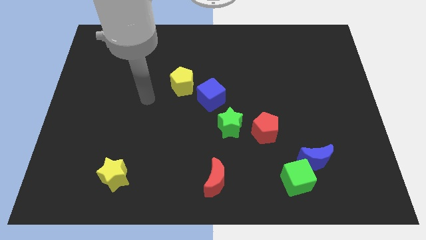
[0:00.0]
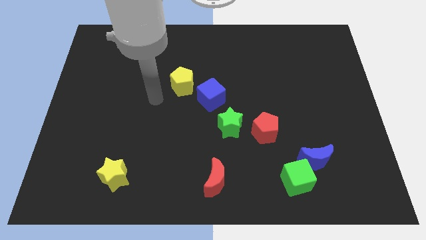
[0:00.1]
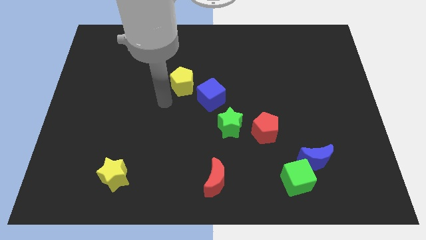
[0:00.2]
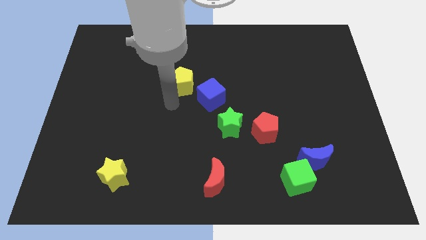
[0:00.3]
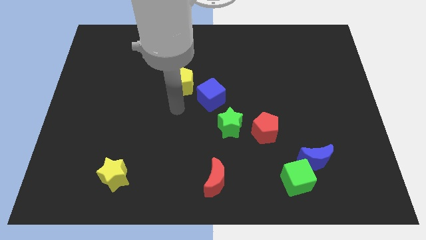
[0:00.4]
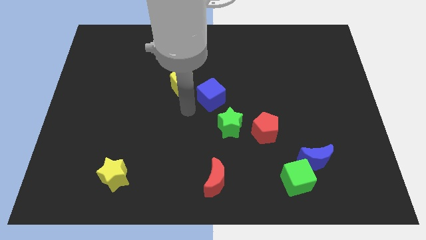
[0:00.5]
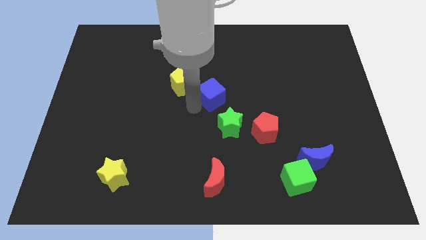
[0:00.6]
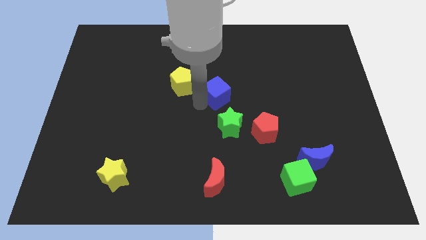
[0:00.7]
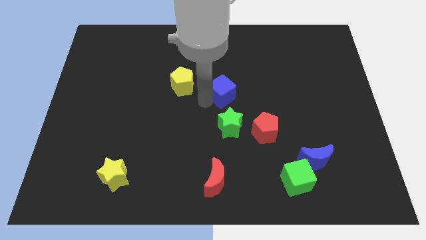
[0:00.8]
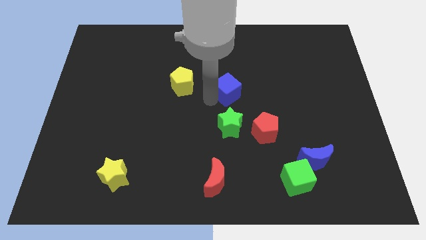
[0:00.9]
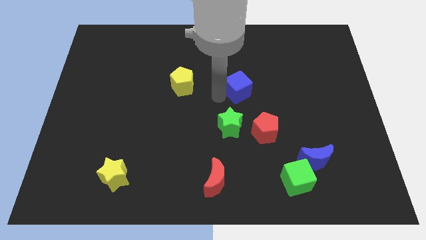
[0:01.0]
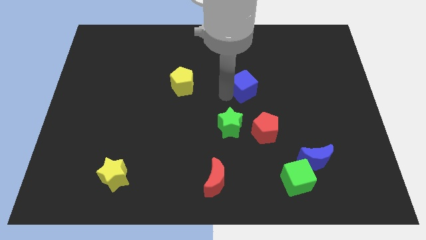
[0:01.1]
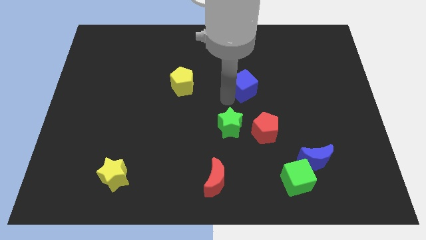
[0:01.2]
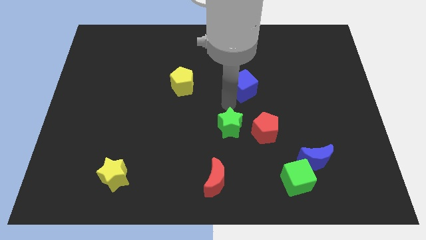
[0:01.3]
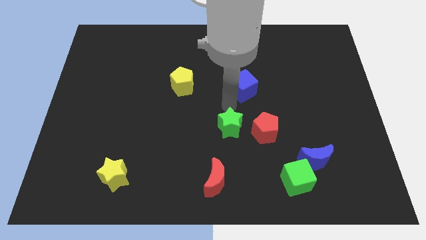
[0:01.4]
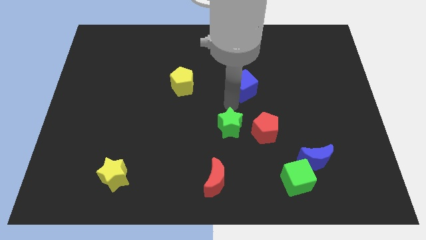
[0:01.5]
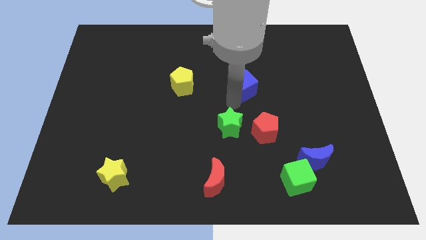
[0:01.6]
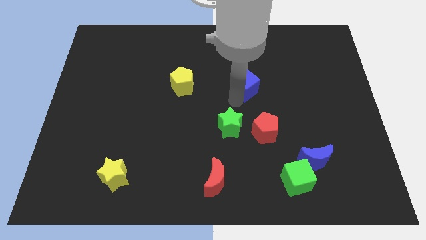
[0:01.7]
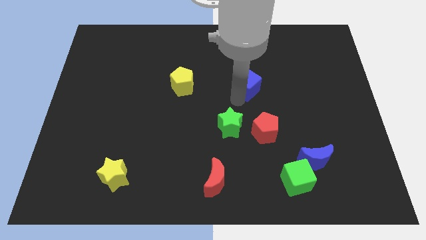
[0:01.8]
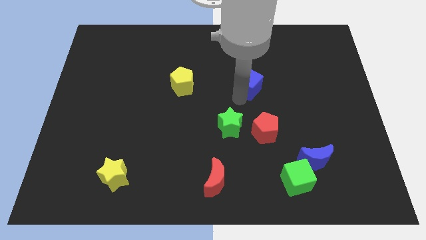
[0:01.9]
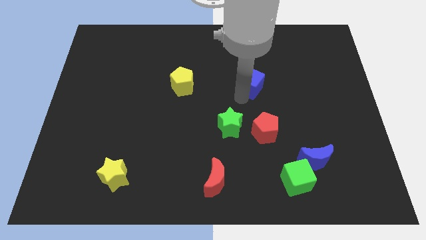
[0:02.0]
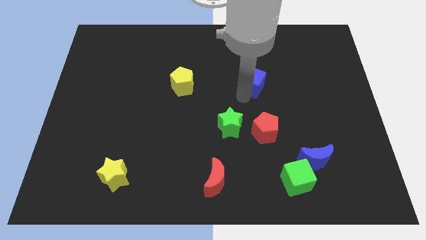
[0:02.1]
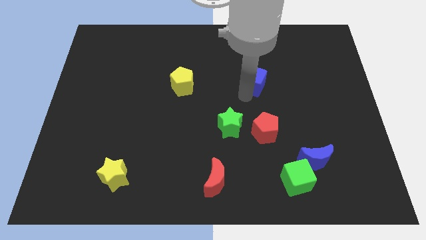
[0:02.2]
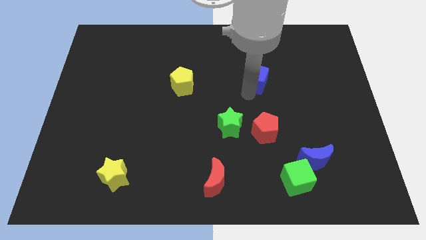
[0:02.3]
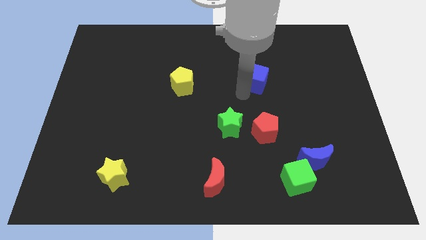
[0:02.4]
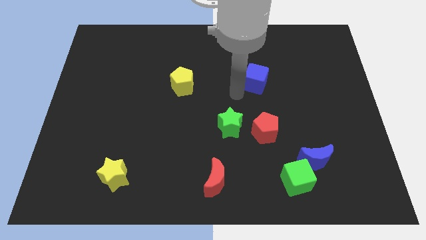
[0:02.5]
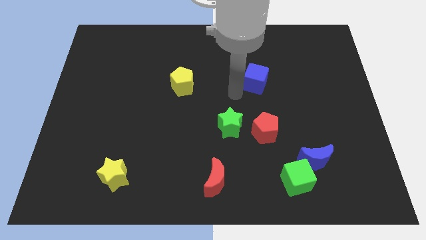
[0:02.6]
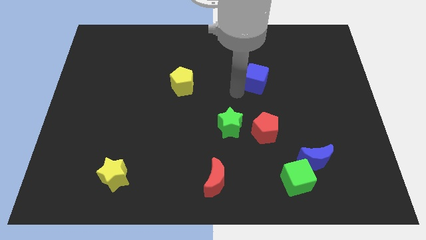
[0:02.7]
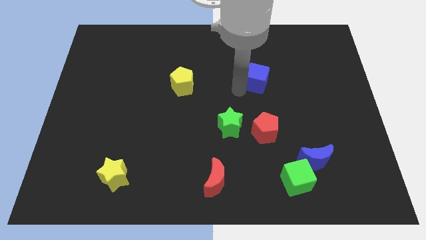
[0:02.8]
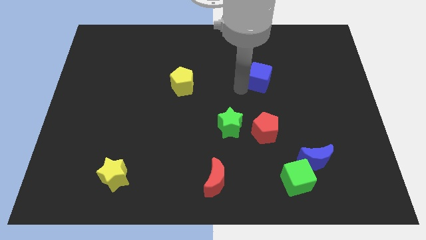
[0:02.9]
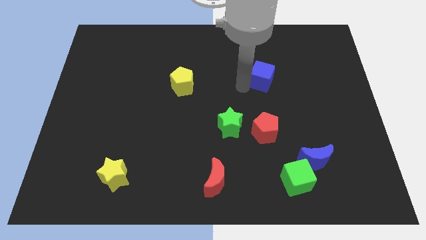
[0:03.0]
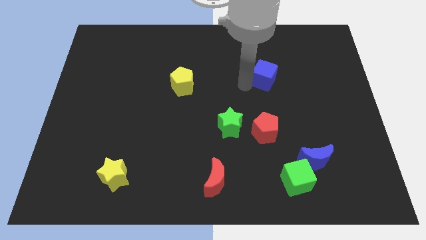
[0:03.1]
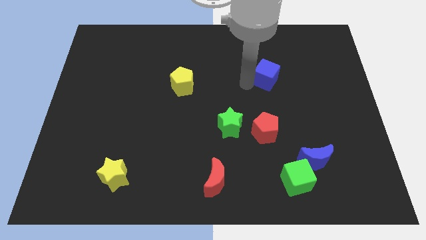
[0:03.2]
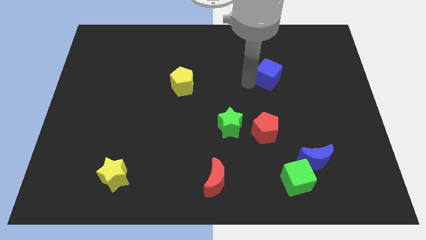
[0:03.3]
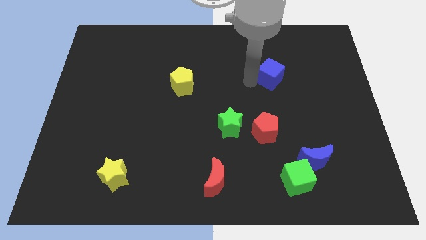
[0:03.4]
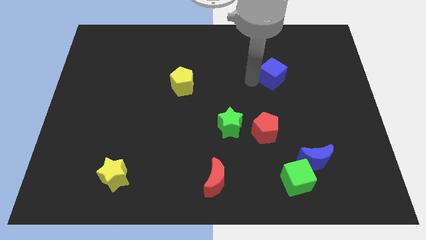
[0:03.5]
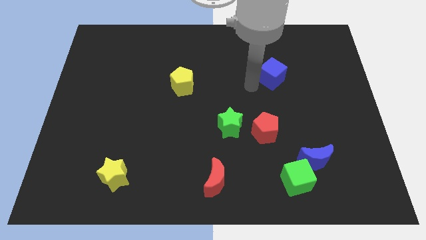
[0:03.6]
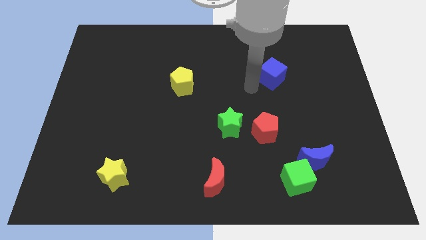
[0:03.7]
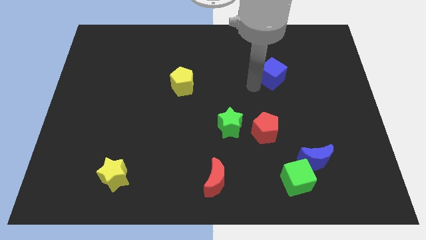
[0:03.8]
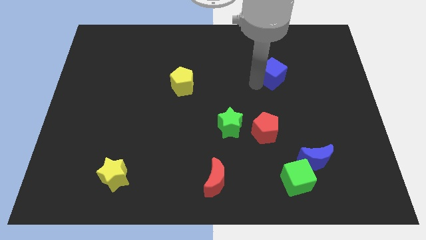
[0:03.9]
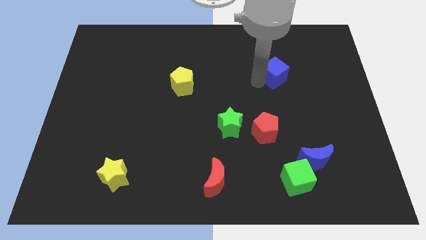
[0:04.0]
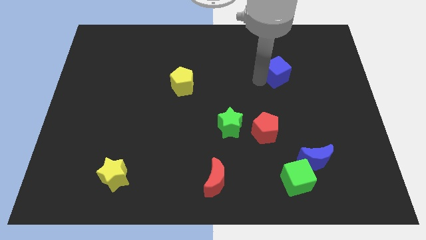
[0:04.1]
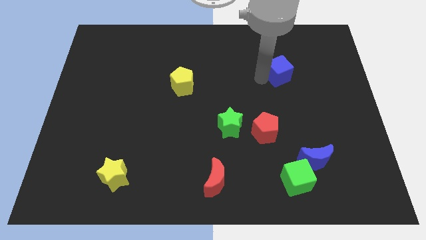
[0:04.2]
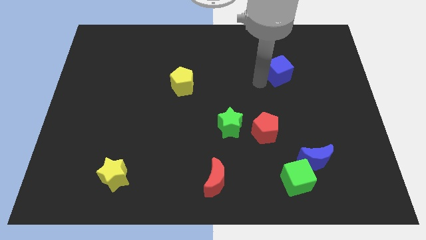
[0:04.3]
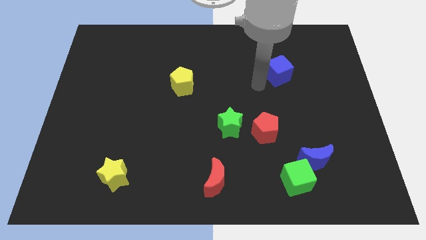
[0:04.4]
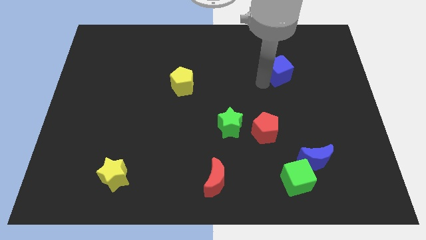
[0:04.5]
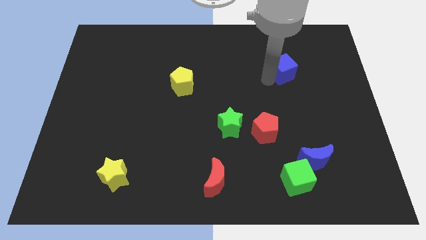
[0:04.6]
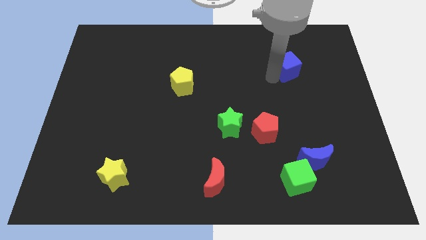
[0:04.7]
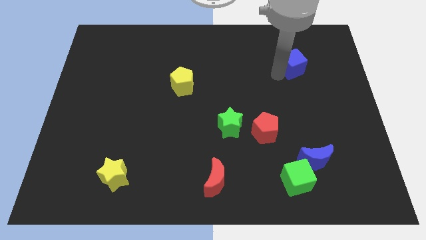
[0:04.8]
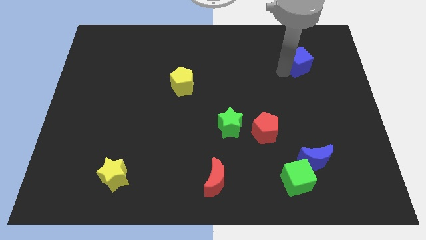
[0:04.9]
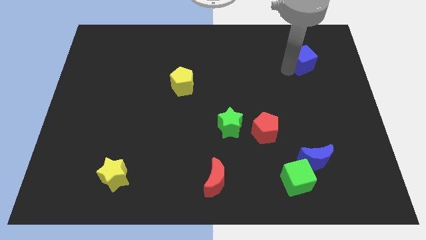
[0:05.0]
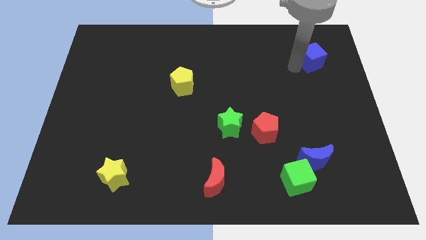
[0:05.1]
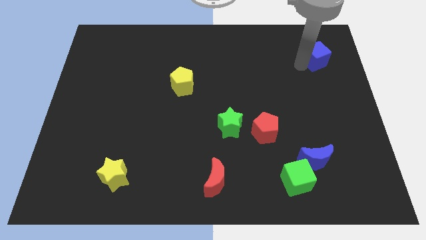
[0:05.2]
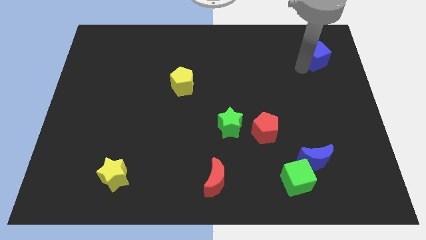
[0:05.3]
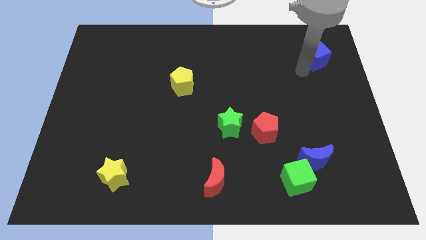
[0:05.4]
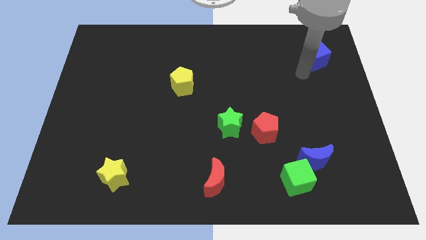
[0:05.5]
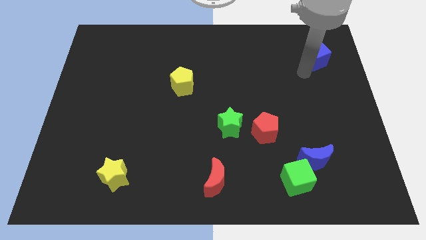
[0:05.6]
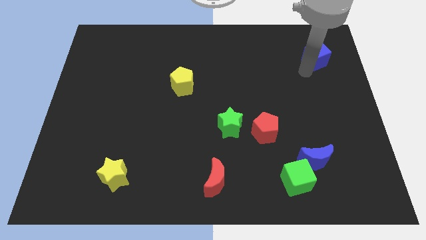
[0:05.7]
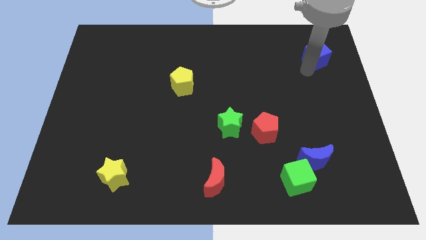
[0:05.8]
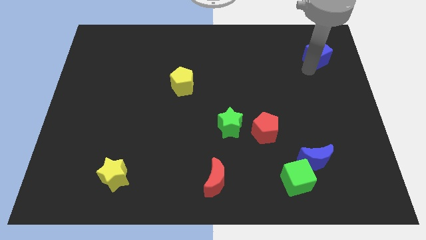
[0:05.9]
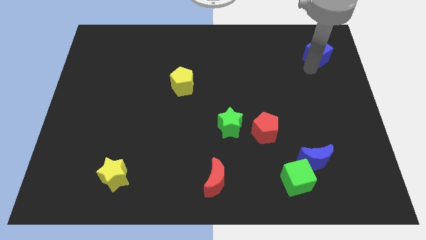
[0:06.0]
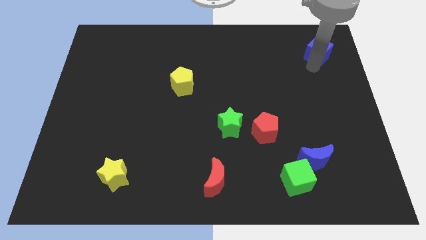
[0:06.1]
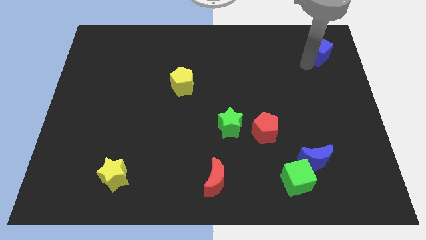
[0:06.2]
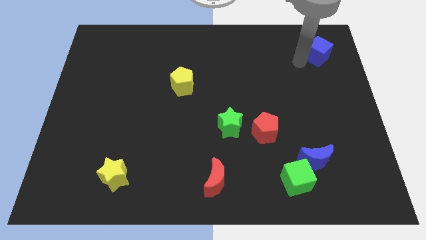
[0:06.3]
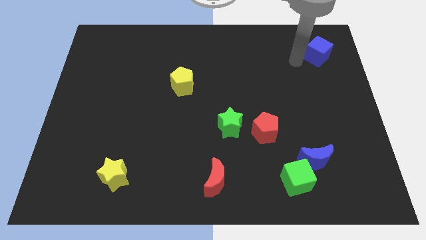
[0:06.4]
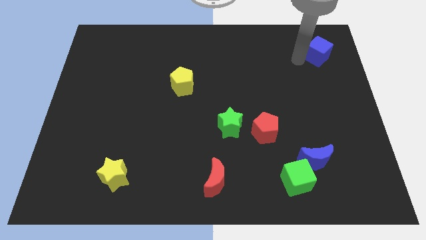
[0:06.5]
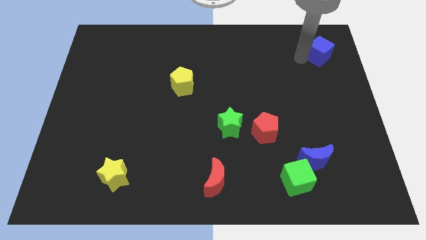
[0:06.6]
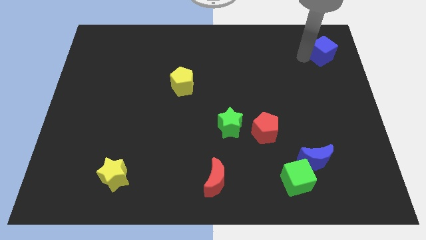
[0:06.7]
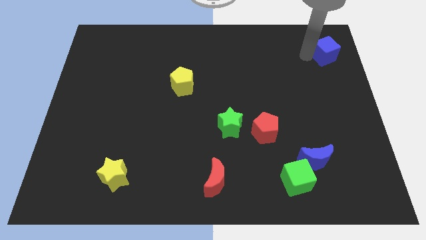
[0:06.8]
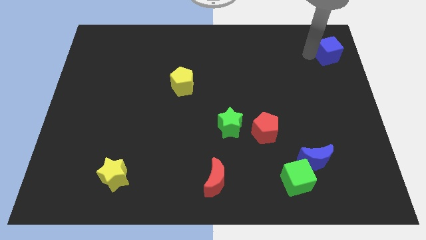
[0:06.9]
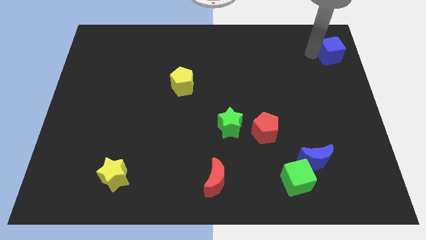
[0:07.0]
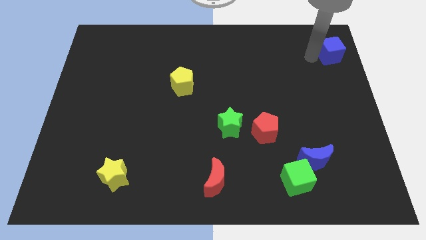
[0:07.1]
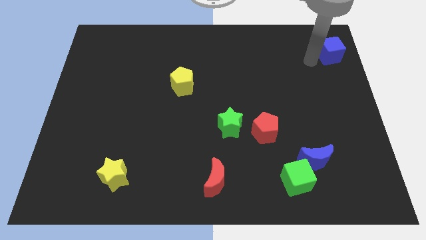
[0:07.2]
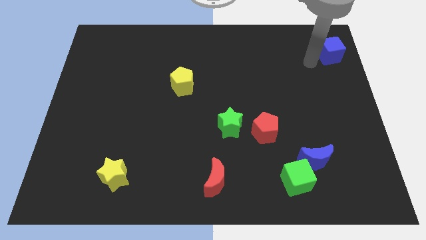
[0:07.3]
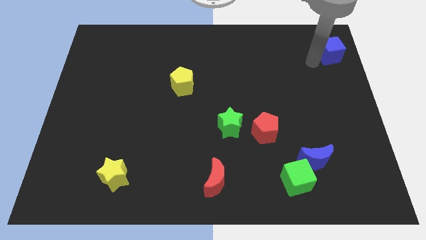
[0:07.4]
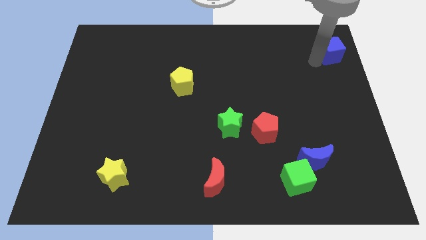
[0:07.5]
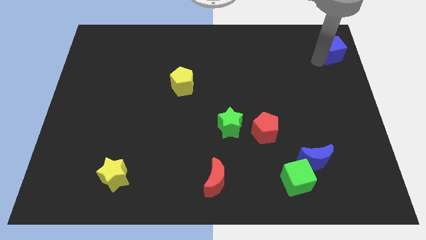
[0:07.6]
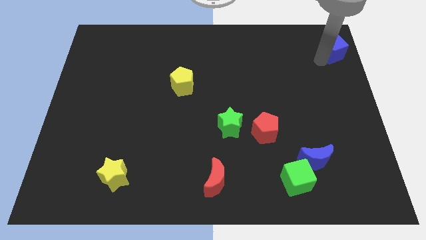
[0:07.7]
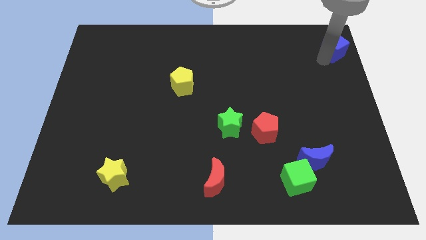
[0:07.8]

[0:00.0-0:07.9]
move the blue cube to the top right of the board
